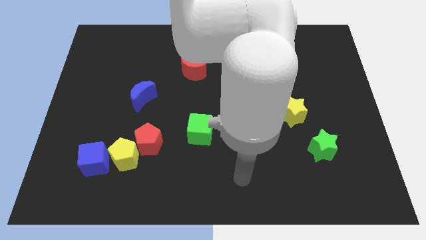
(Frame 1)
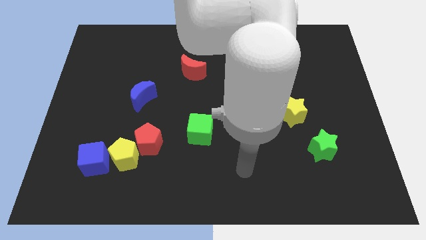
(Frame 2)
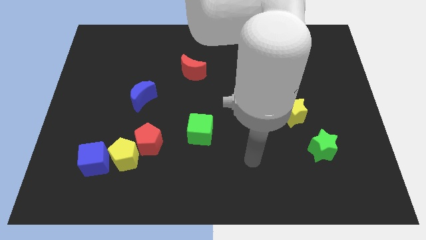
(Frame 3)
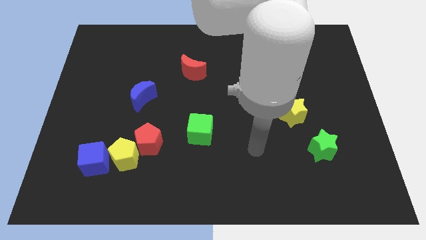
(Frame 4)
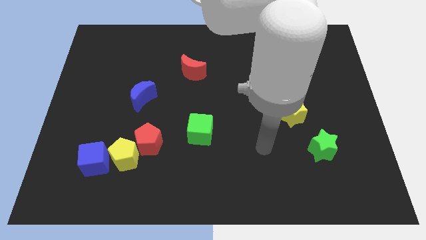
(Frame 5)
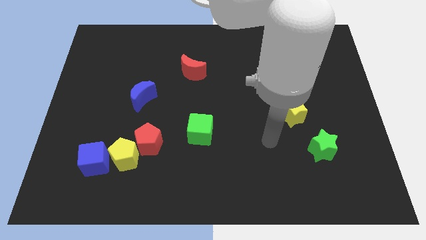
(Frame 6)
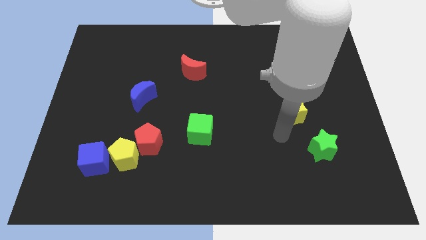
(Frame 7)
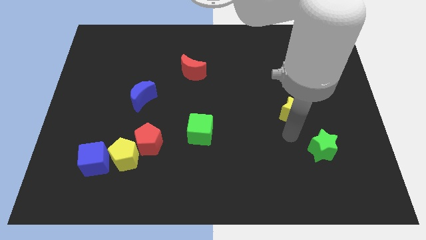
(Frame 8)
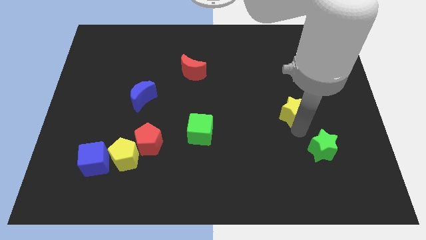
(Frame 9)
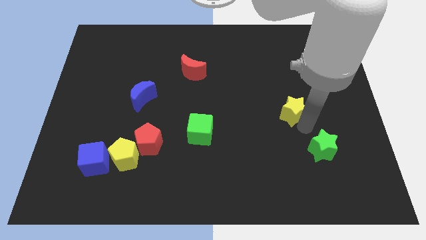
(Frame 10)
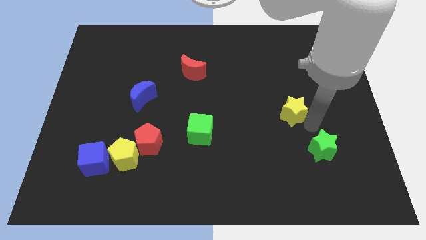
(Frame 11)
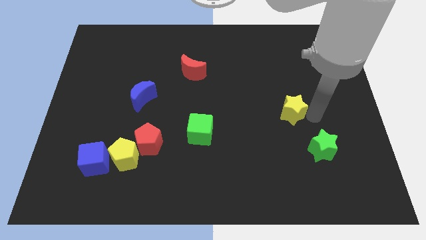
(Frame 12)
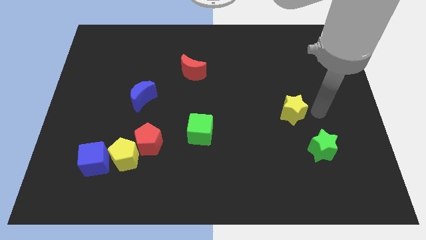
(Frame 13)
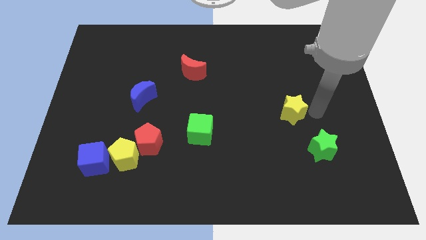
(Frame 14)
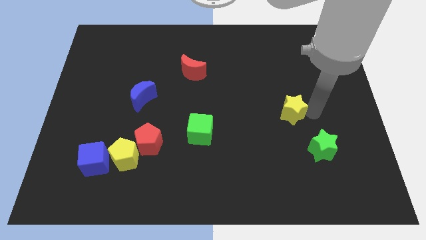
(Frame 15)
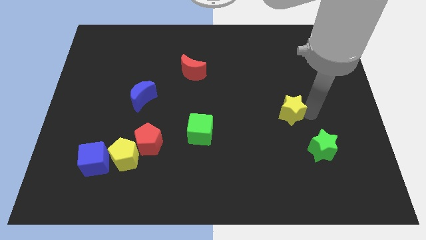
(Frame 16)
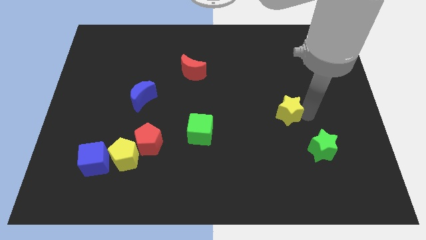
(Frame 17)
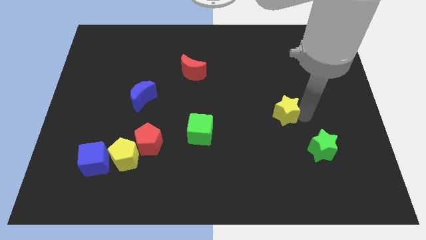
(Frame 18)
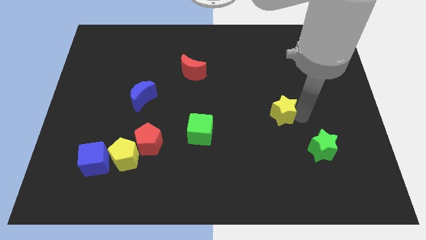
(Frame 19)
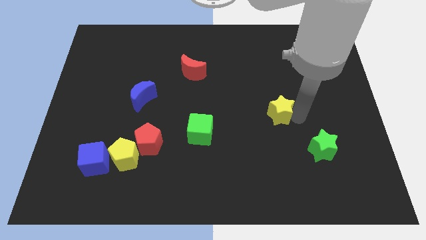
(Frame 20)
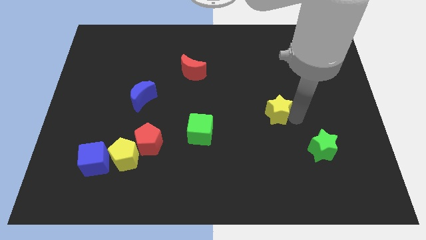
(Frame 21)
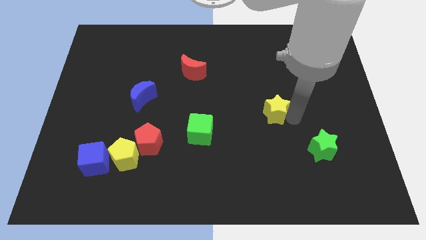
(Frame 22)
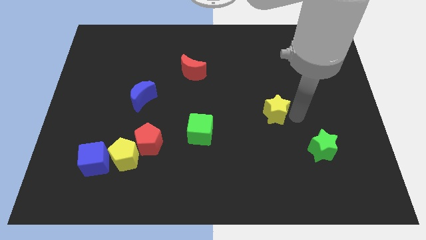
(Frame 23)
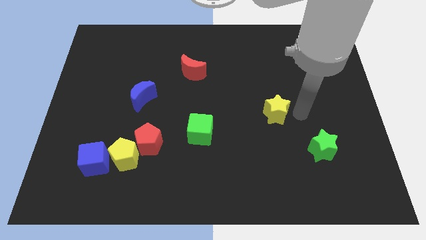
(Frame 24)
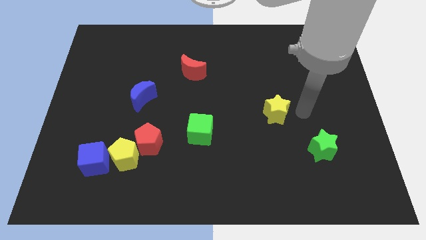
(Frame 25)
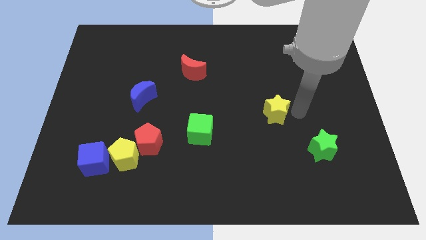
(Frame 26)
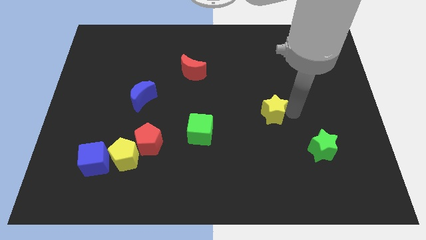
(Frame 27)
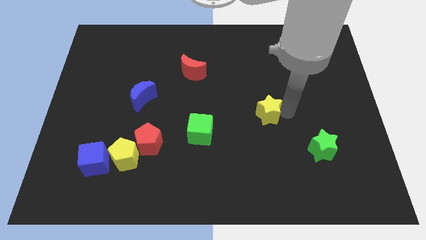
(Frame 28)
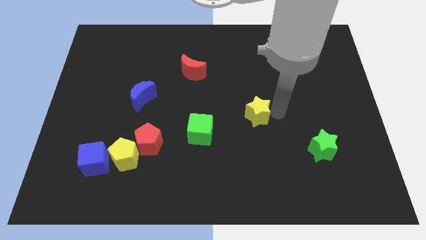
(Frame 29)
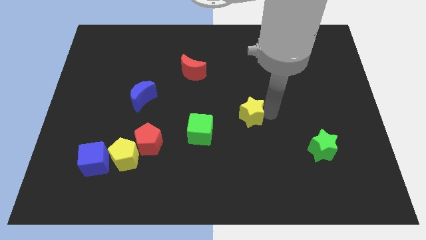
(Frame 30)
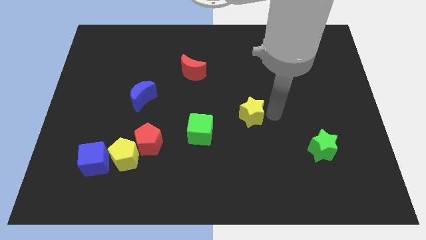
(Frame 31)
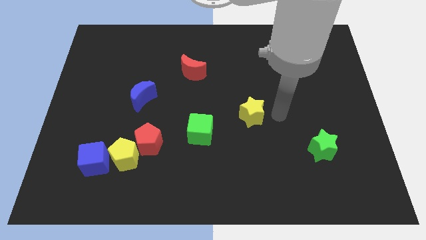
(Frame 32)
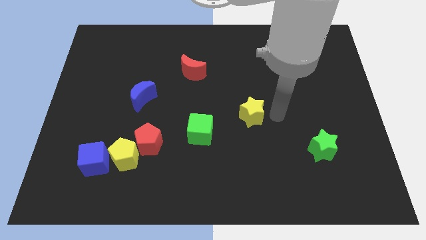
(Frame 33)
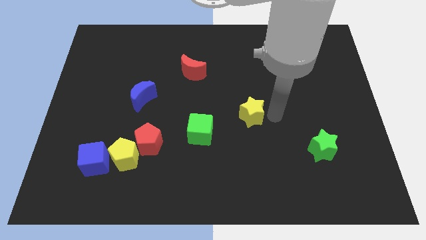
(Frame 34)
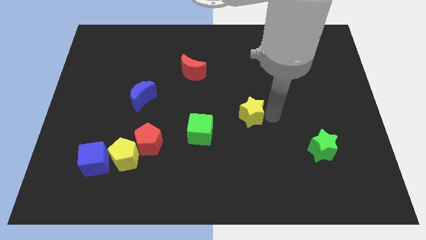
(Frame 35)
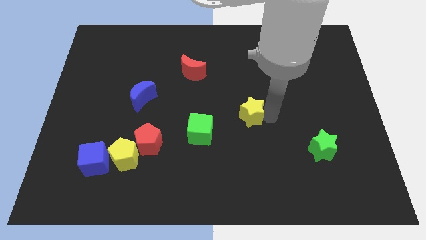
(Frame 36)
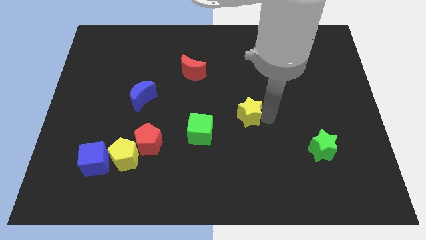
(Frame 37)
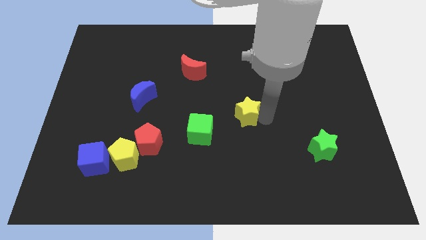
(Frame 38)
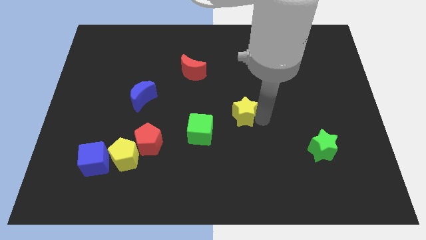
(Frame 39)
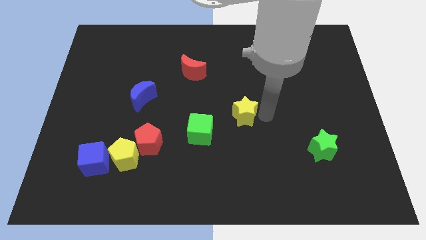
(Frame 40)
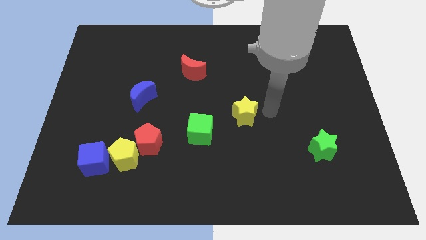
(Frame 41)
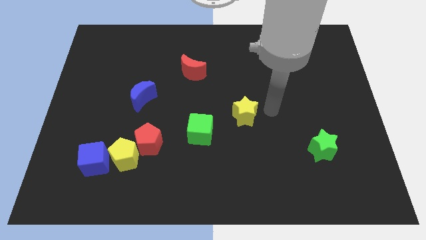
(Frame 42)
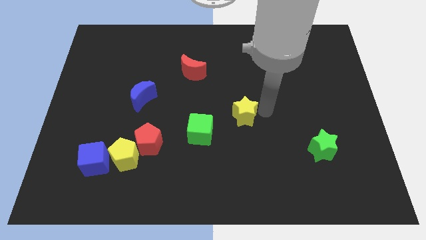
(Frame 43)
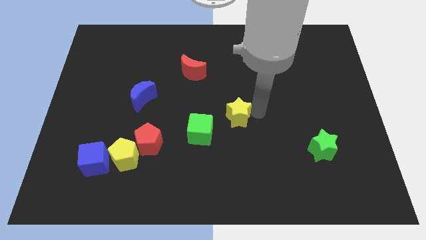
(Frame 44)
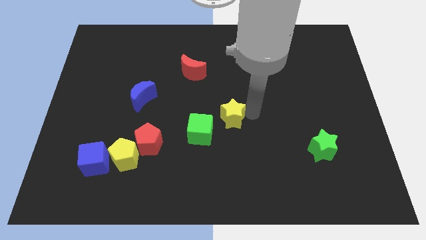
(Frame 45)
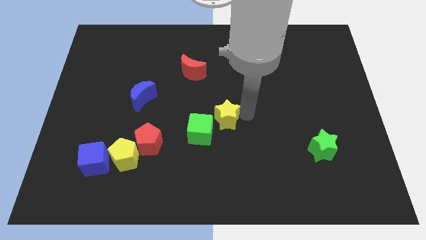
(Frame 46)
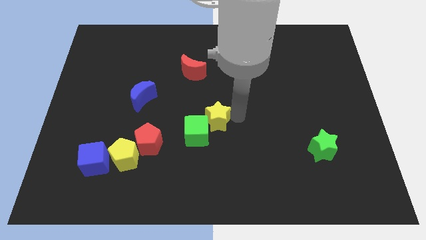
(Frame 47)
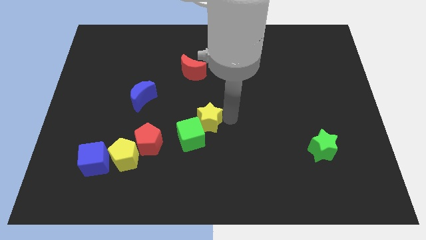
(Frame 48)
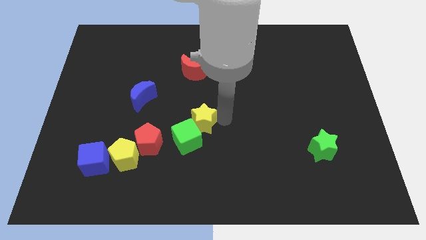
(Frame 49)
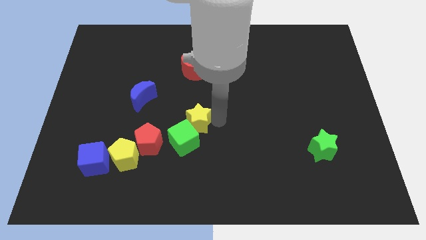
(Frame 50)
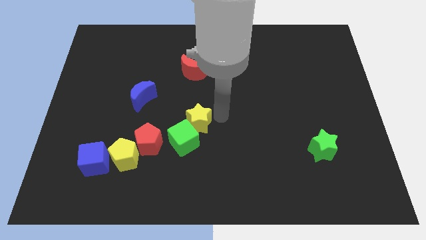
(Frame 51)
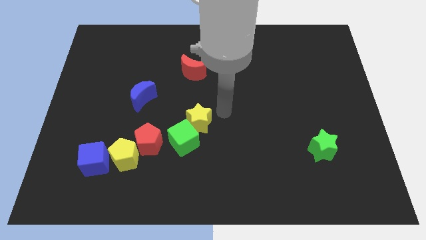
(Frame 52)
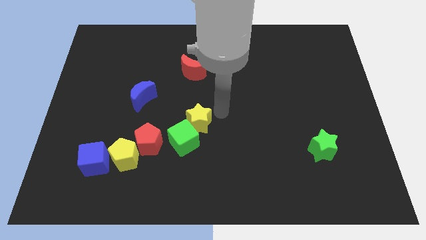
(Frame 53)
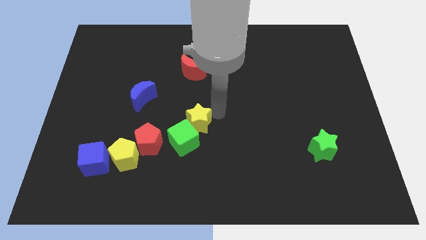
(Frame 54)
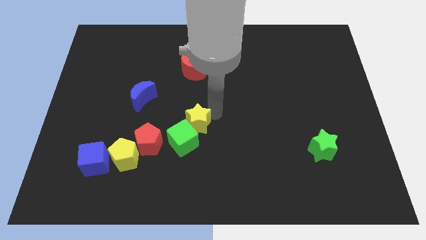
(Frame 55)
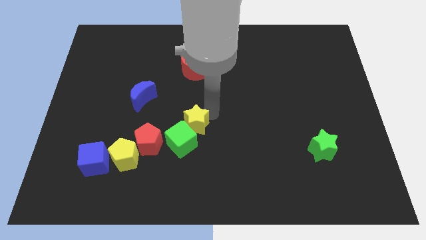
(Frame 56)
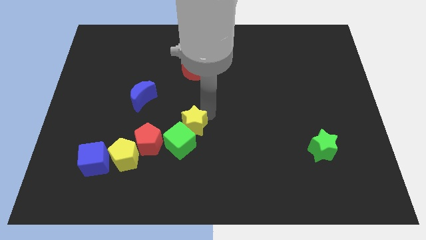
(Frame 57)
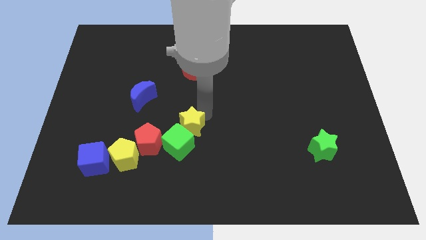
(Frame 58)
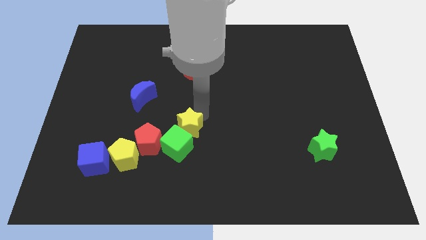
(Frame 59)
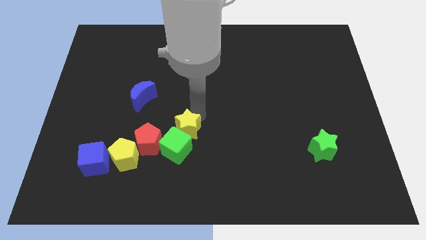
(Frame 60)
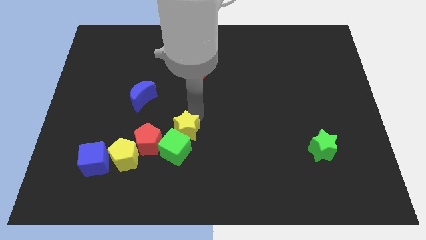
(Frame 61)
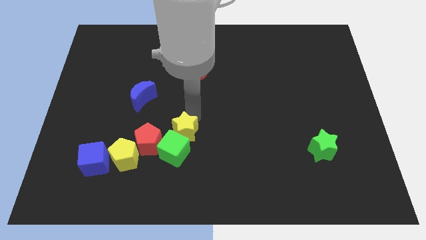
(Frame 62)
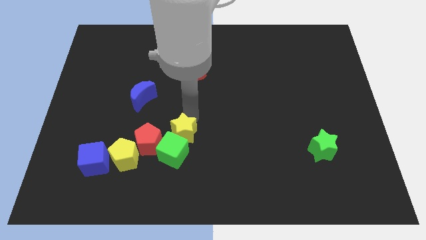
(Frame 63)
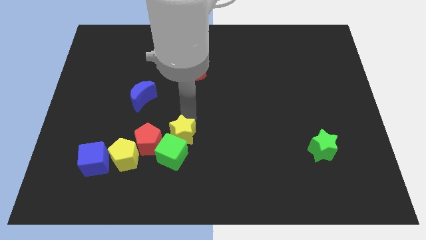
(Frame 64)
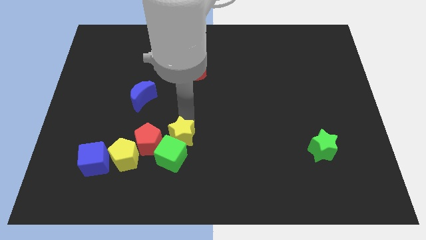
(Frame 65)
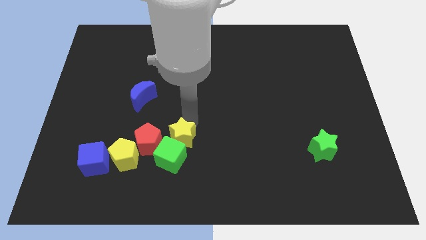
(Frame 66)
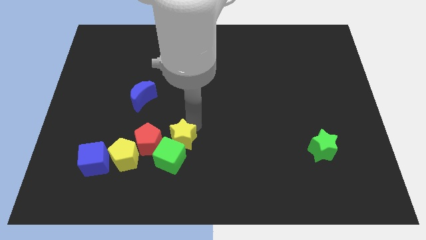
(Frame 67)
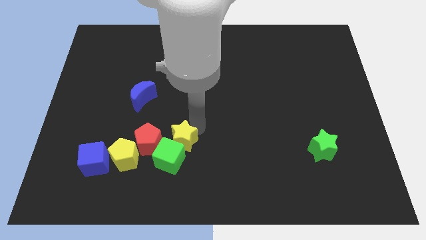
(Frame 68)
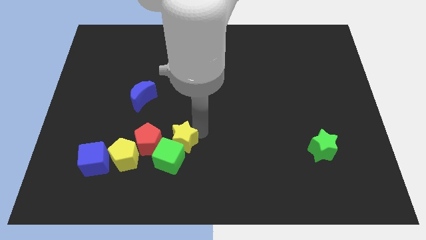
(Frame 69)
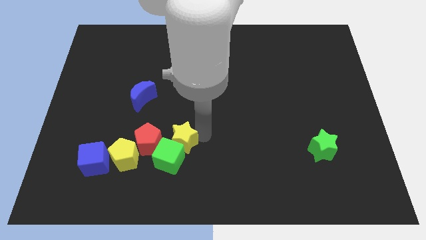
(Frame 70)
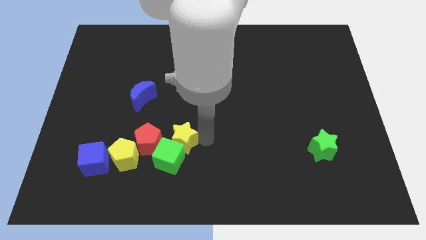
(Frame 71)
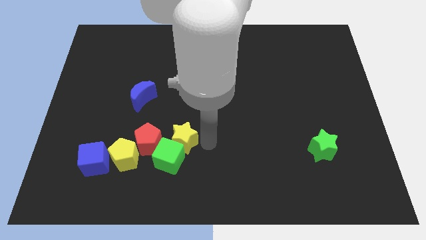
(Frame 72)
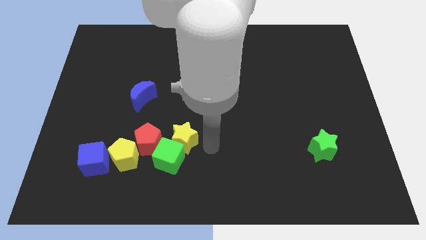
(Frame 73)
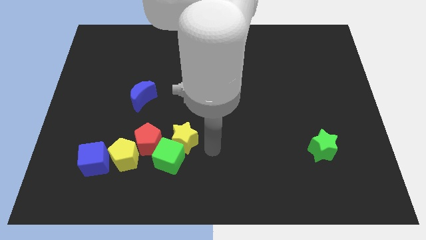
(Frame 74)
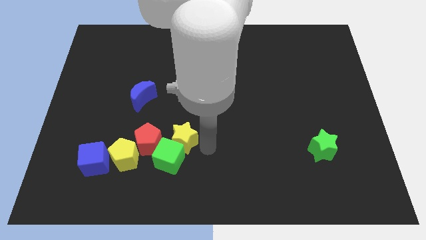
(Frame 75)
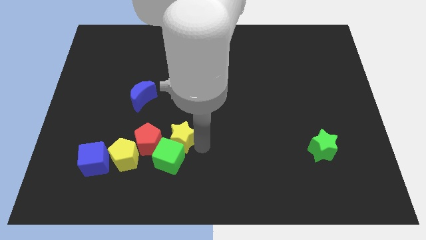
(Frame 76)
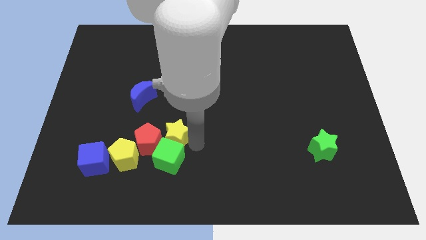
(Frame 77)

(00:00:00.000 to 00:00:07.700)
slide the yellow star towards the red pentagon
